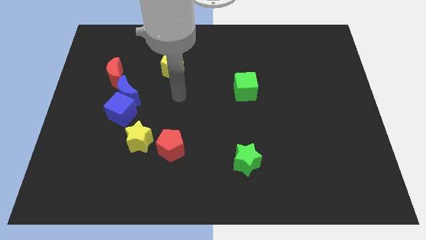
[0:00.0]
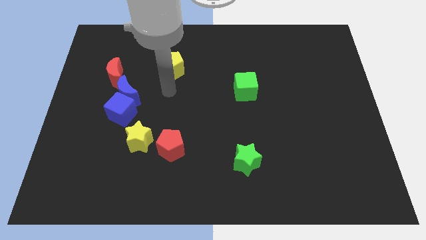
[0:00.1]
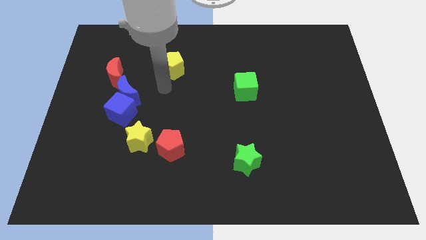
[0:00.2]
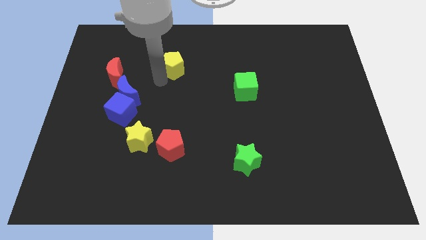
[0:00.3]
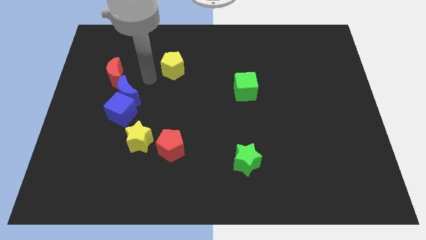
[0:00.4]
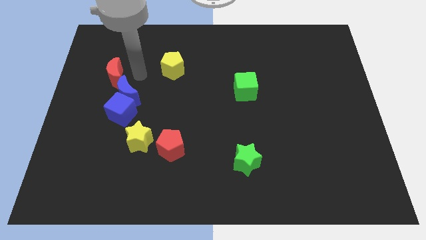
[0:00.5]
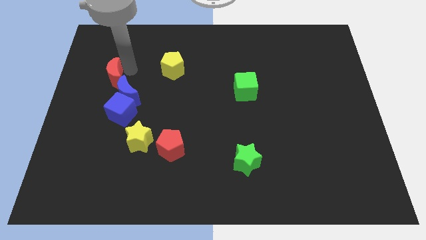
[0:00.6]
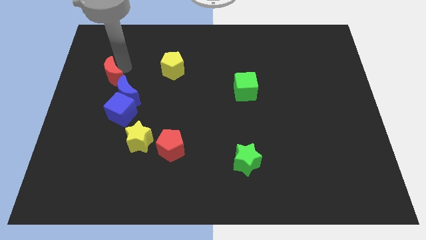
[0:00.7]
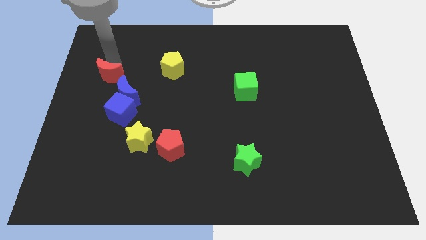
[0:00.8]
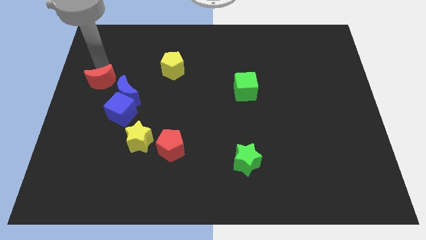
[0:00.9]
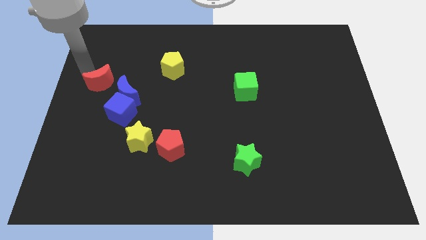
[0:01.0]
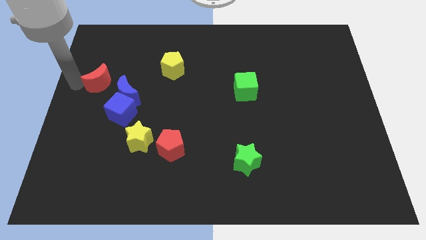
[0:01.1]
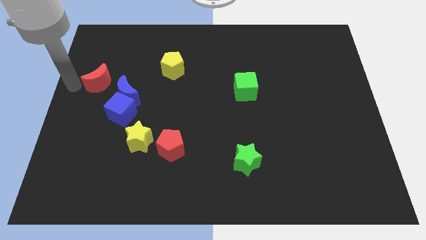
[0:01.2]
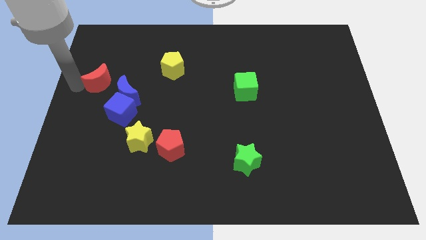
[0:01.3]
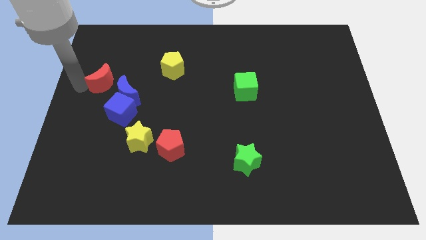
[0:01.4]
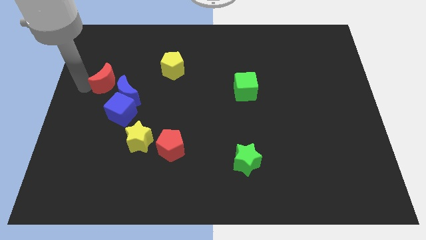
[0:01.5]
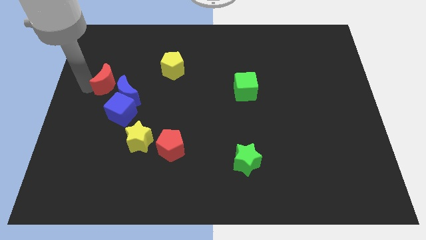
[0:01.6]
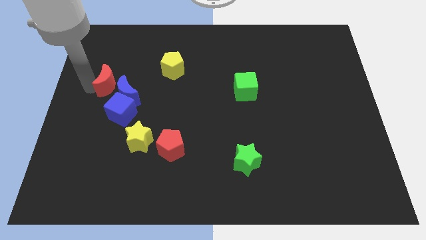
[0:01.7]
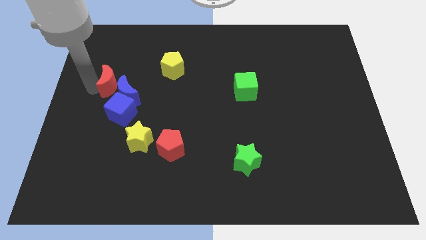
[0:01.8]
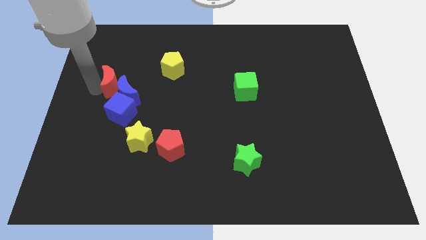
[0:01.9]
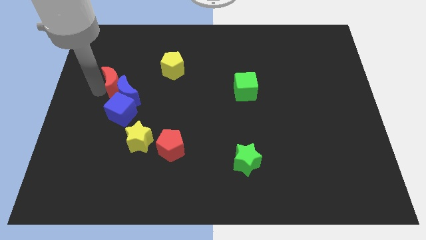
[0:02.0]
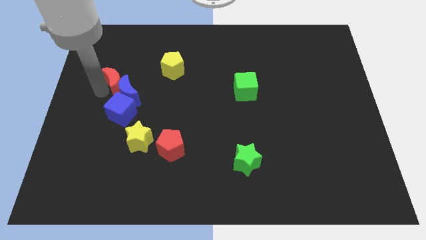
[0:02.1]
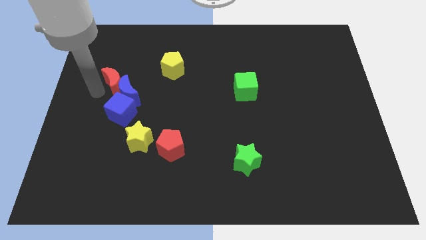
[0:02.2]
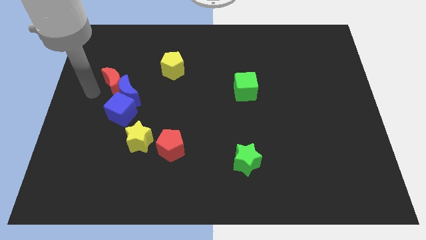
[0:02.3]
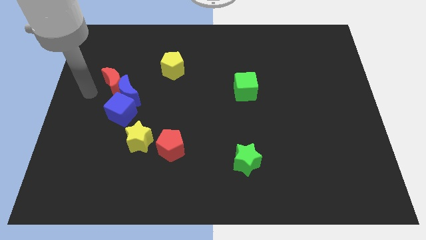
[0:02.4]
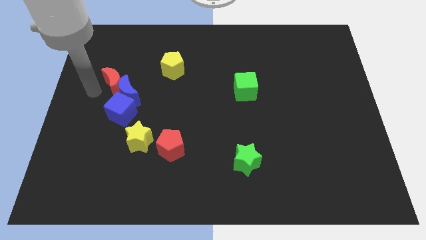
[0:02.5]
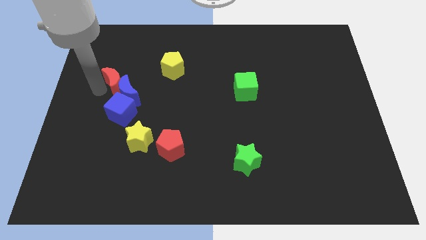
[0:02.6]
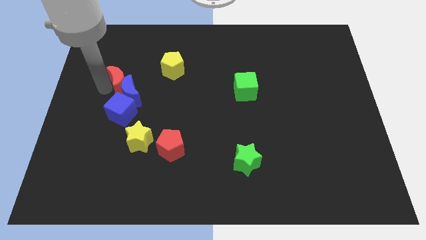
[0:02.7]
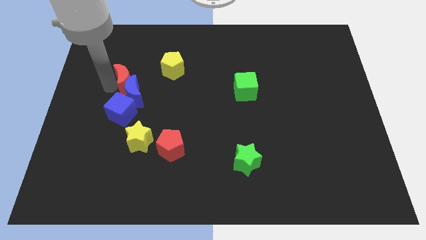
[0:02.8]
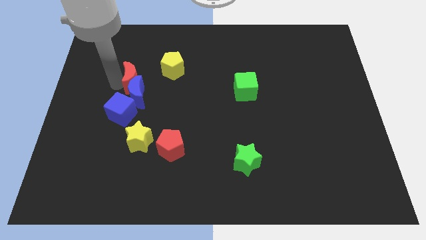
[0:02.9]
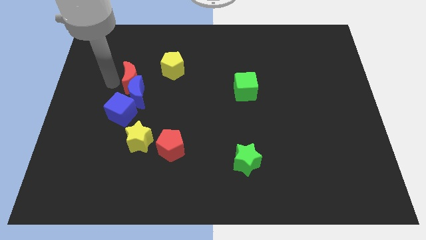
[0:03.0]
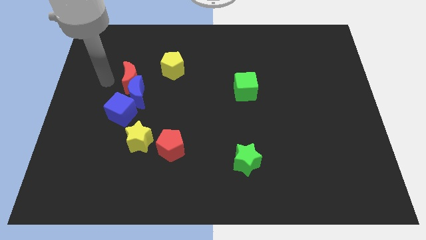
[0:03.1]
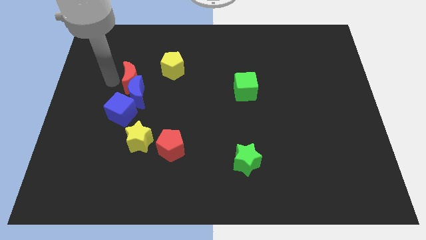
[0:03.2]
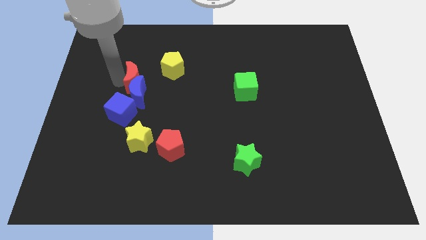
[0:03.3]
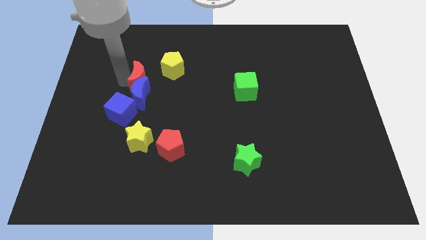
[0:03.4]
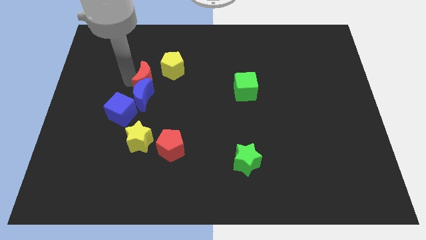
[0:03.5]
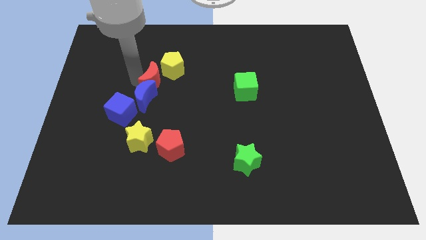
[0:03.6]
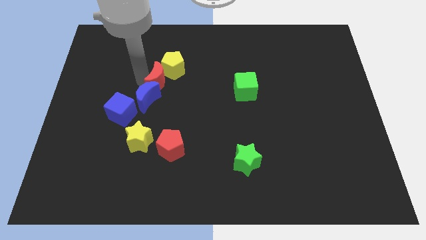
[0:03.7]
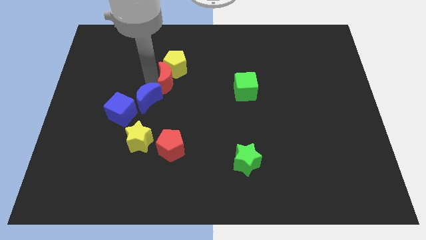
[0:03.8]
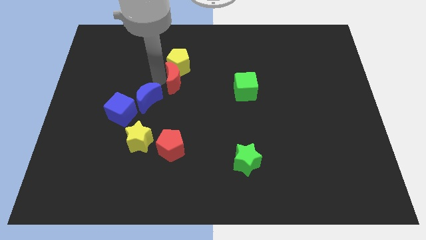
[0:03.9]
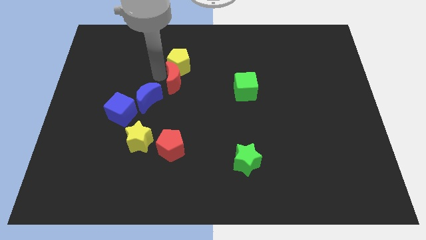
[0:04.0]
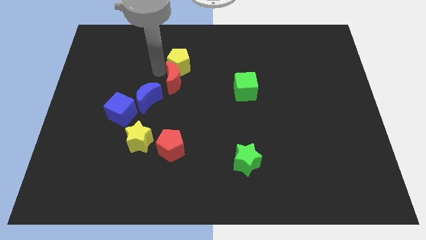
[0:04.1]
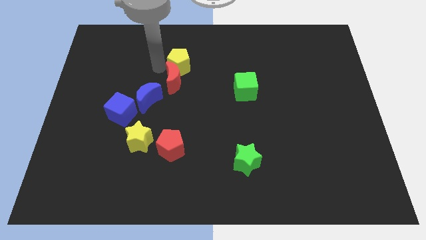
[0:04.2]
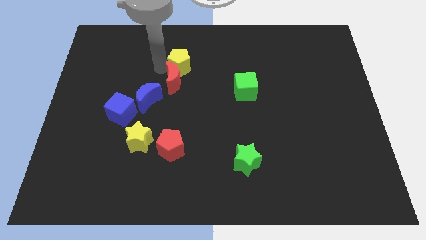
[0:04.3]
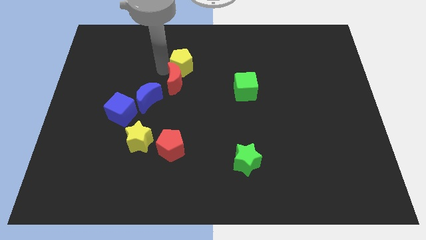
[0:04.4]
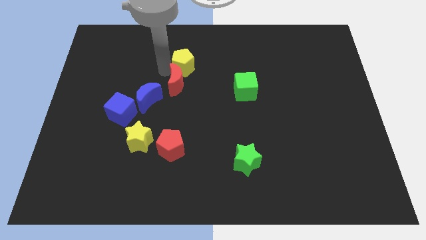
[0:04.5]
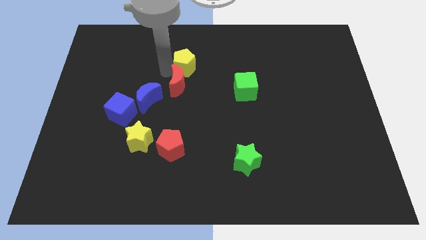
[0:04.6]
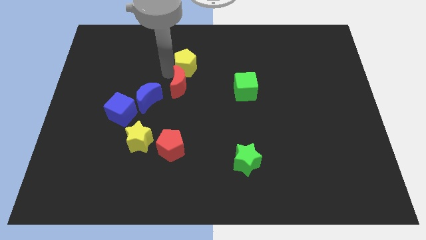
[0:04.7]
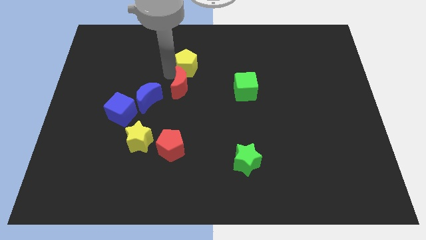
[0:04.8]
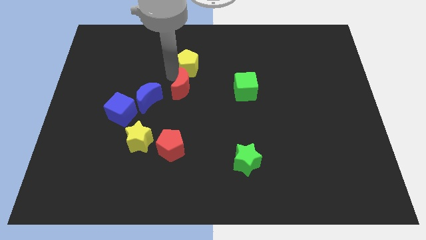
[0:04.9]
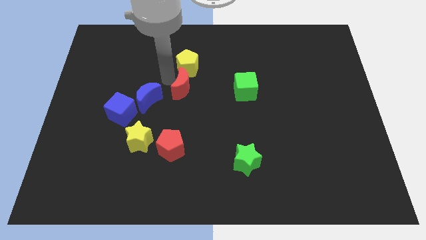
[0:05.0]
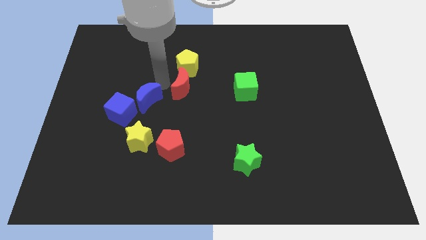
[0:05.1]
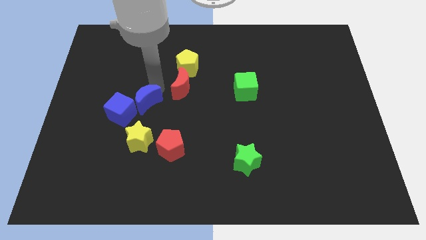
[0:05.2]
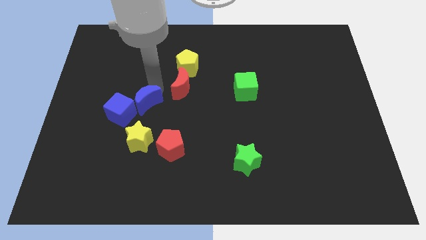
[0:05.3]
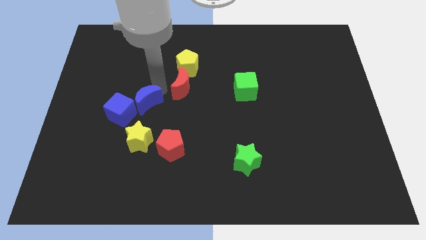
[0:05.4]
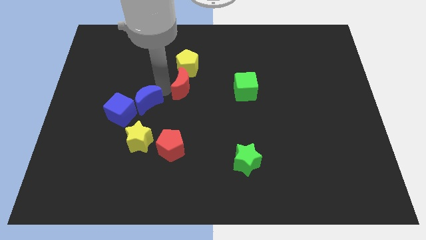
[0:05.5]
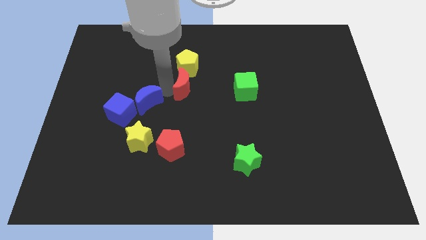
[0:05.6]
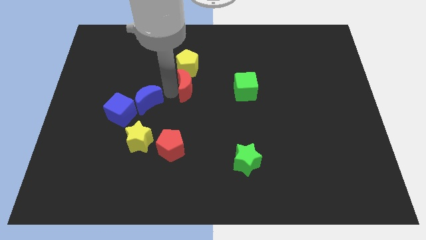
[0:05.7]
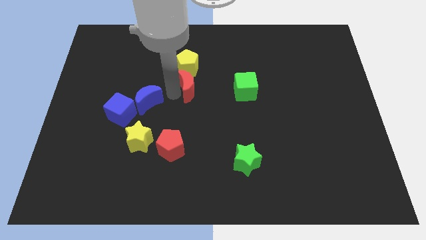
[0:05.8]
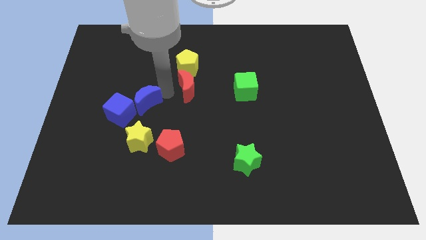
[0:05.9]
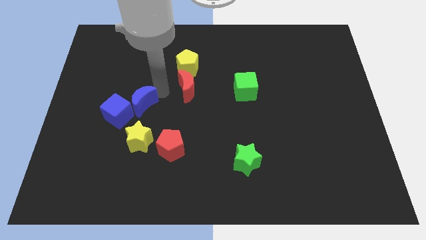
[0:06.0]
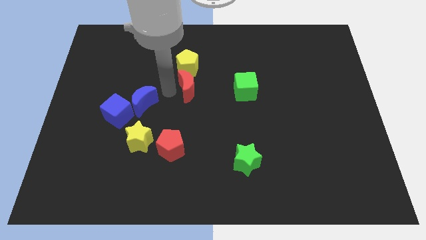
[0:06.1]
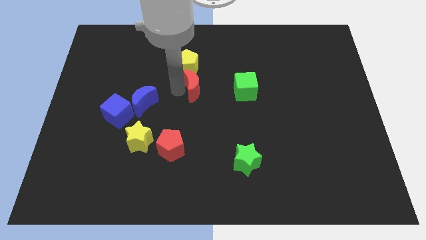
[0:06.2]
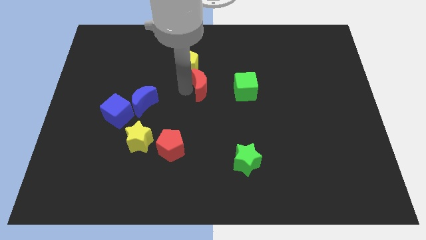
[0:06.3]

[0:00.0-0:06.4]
move the red moon right

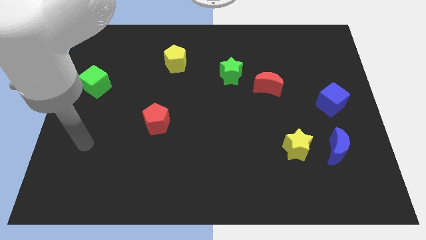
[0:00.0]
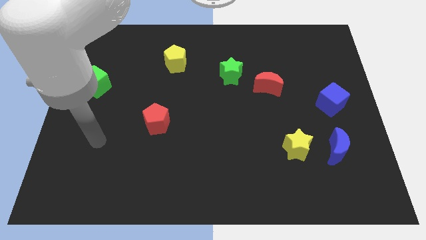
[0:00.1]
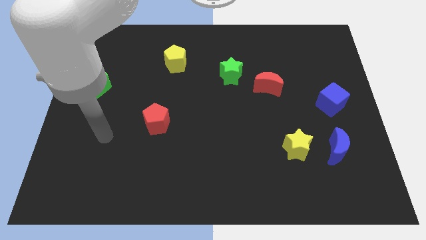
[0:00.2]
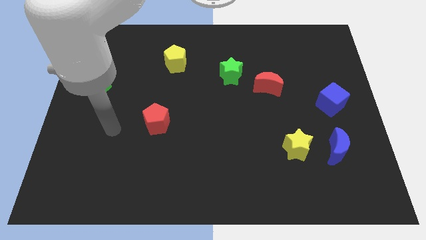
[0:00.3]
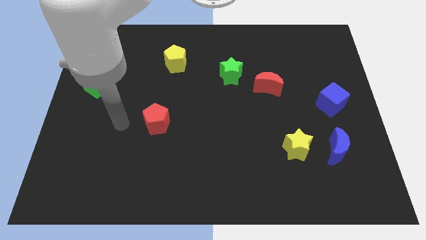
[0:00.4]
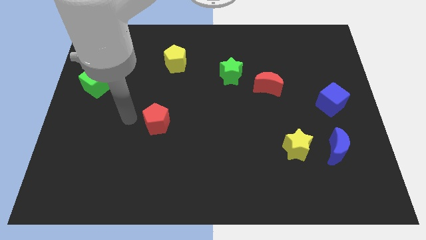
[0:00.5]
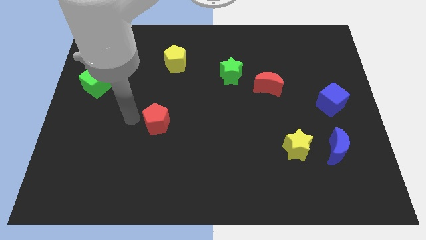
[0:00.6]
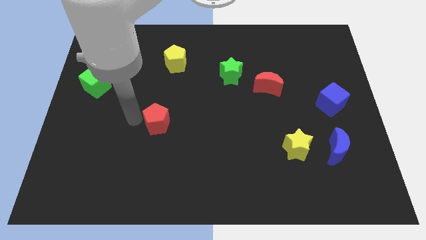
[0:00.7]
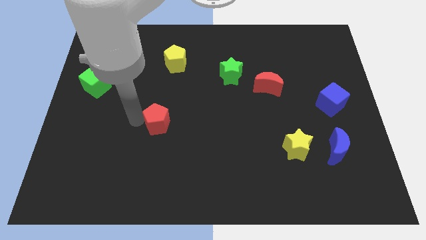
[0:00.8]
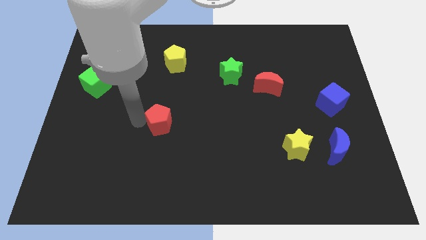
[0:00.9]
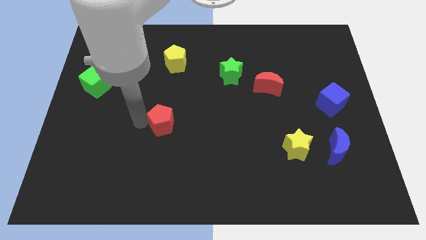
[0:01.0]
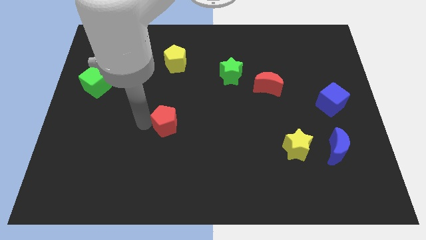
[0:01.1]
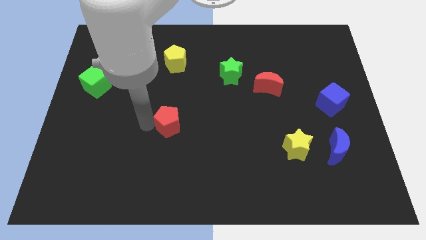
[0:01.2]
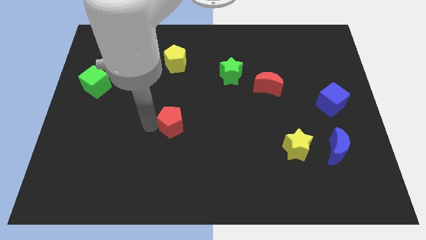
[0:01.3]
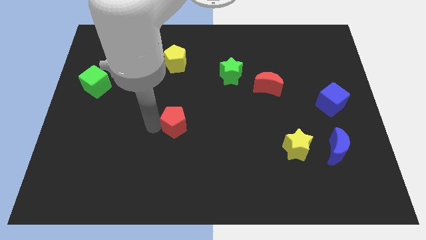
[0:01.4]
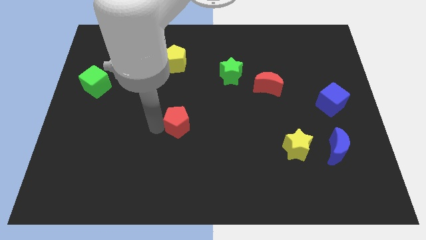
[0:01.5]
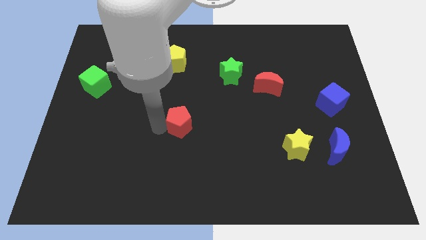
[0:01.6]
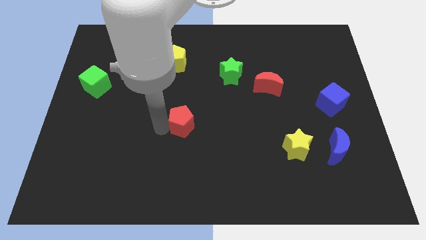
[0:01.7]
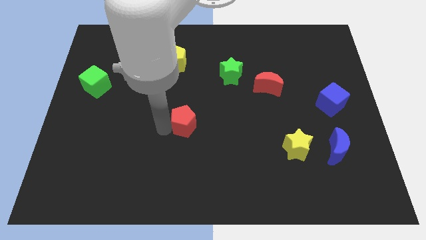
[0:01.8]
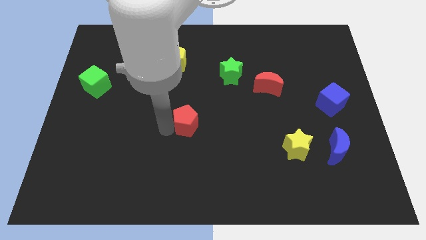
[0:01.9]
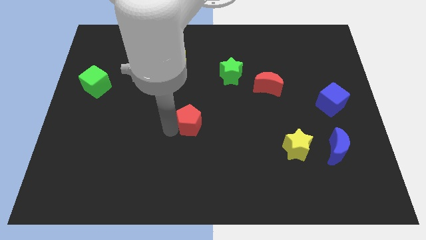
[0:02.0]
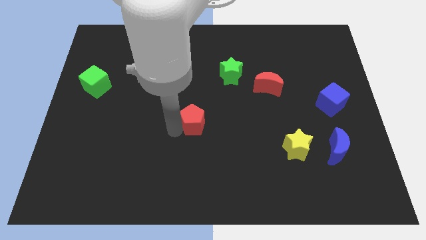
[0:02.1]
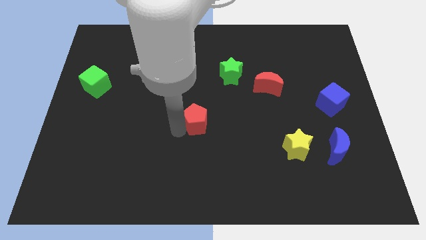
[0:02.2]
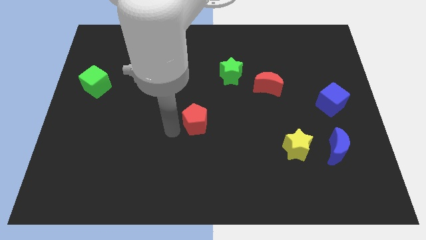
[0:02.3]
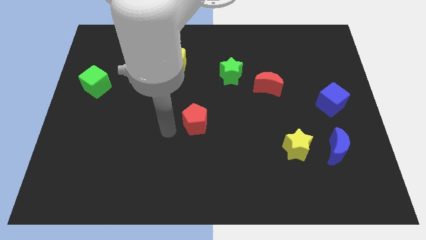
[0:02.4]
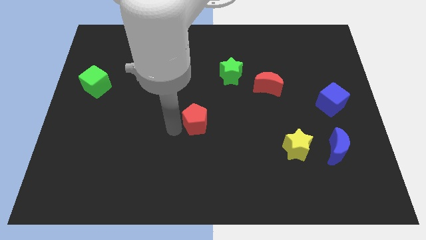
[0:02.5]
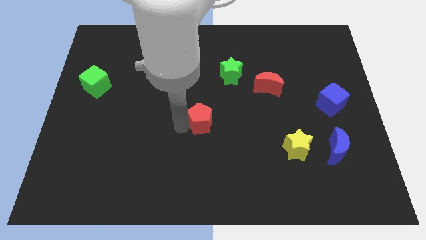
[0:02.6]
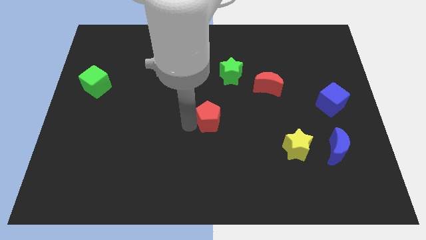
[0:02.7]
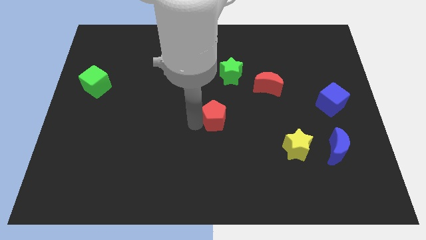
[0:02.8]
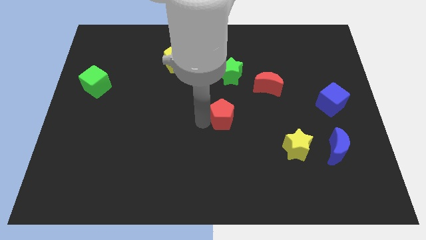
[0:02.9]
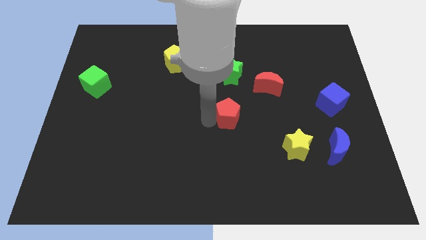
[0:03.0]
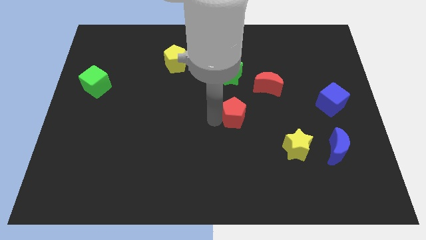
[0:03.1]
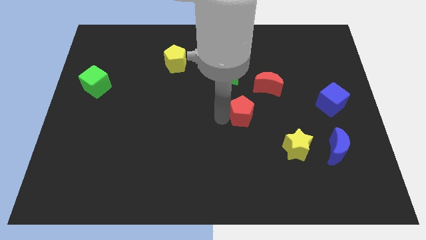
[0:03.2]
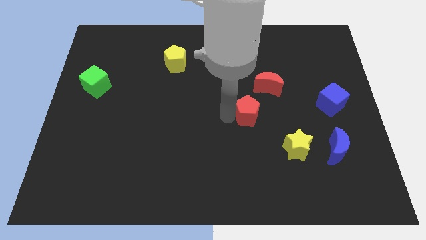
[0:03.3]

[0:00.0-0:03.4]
slide the red pentagon to the right
